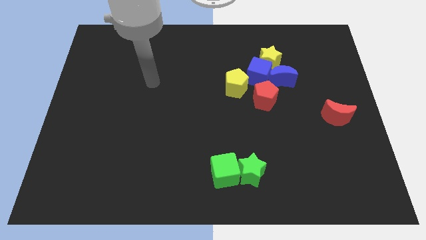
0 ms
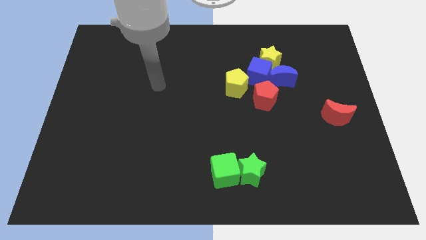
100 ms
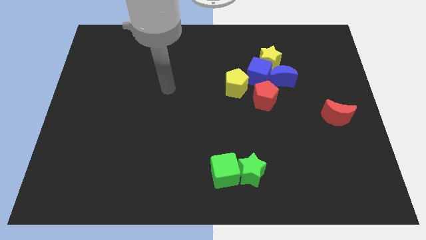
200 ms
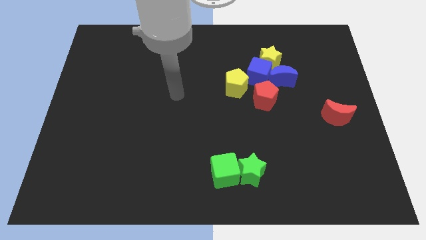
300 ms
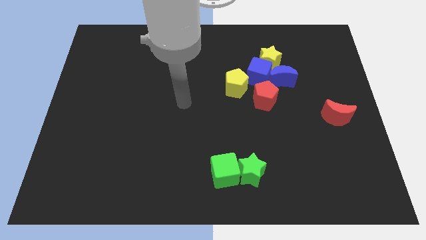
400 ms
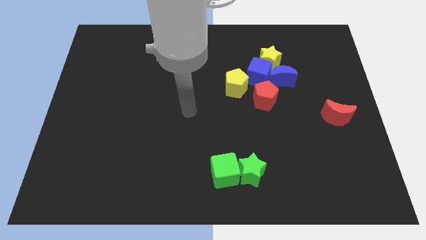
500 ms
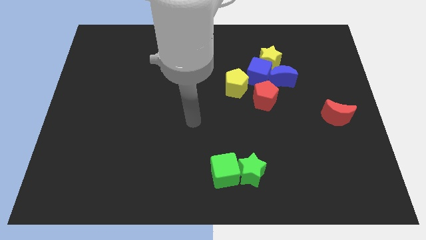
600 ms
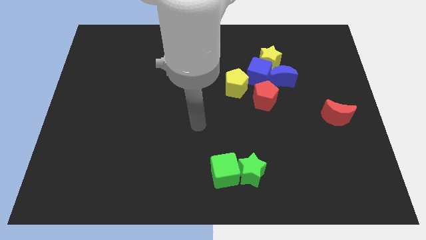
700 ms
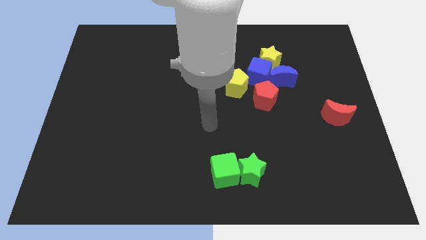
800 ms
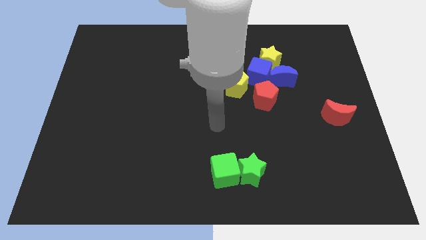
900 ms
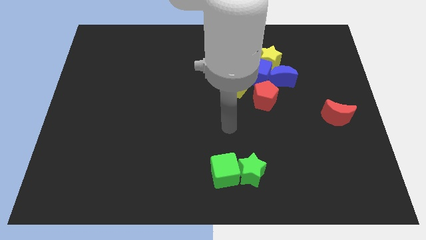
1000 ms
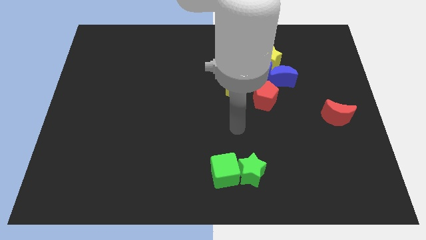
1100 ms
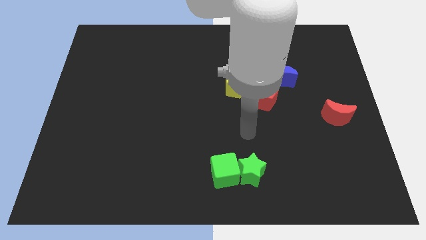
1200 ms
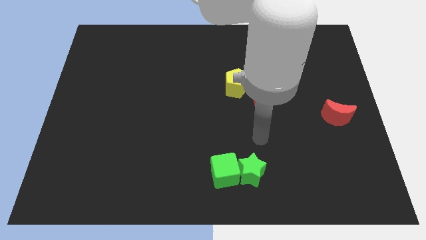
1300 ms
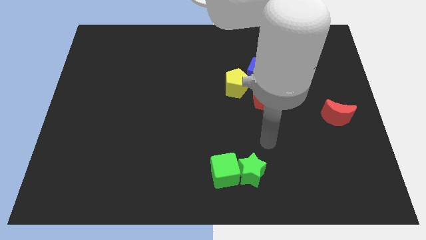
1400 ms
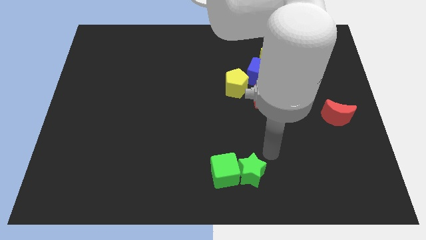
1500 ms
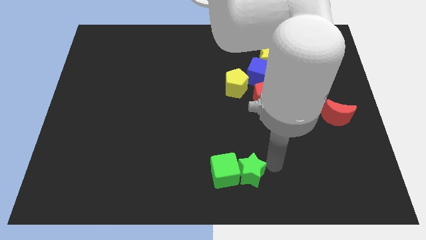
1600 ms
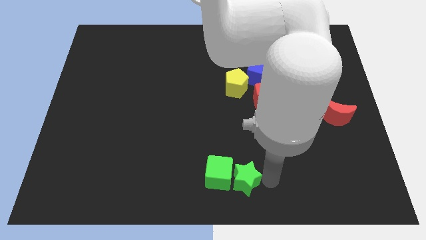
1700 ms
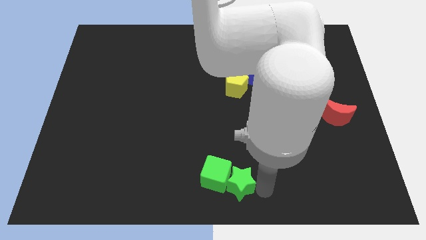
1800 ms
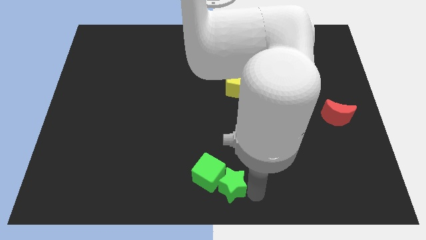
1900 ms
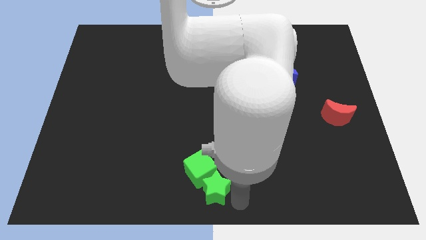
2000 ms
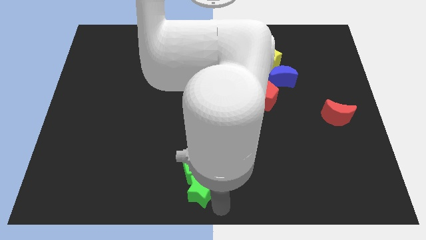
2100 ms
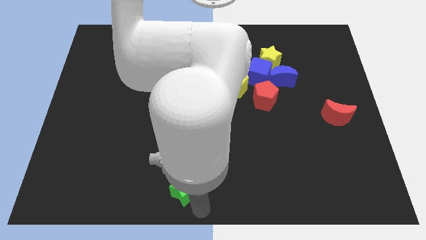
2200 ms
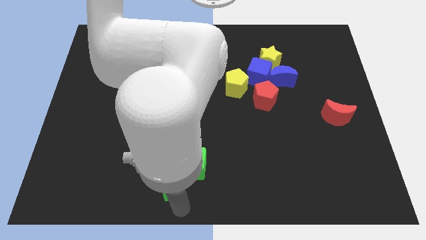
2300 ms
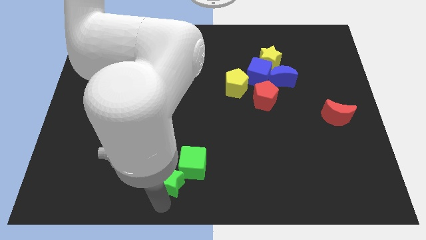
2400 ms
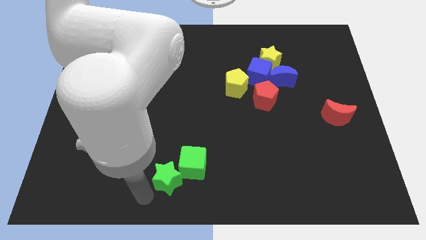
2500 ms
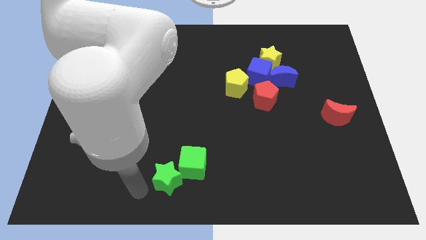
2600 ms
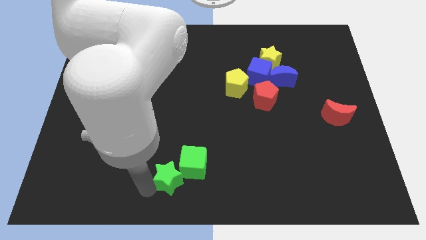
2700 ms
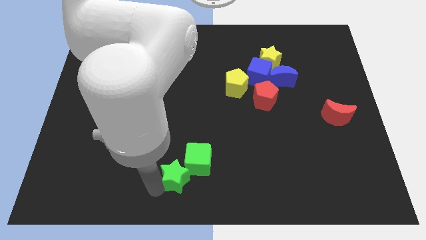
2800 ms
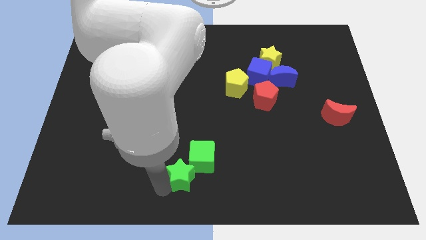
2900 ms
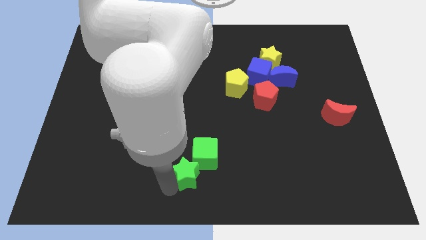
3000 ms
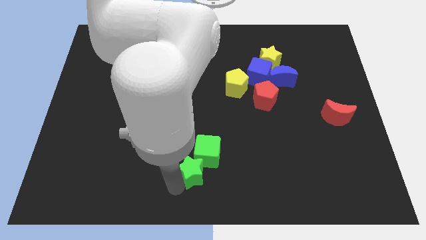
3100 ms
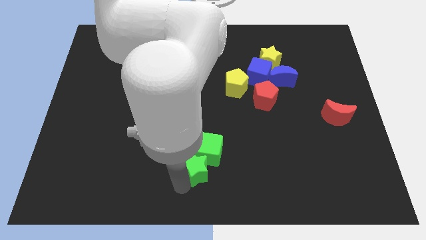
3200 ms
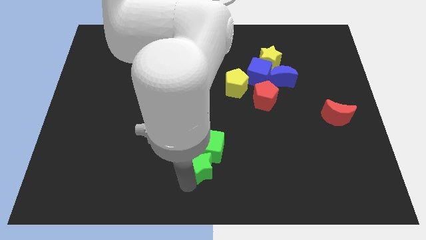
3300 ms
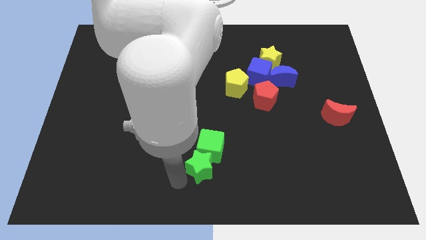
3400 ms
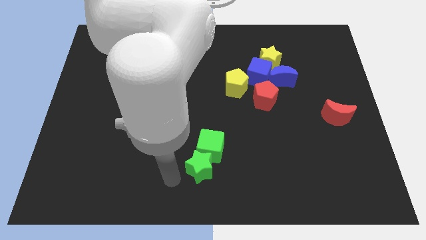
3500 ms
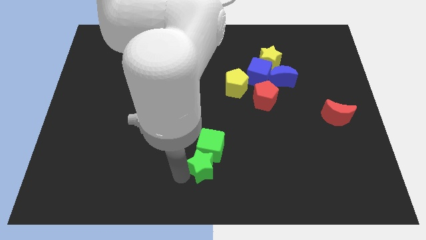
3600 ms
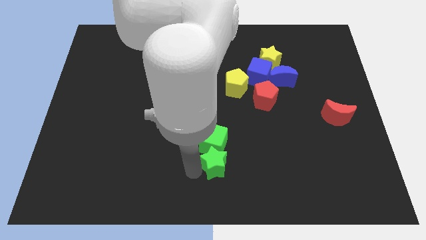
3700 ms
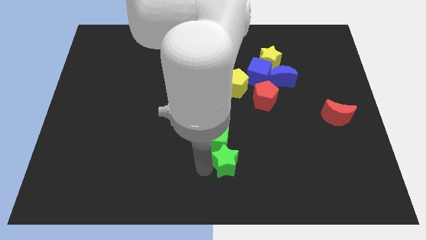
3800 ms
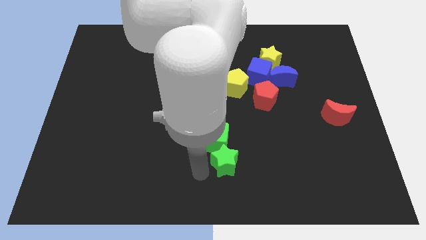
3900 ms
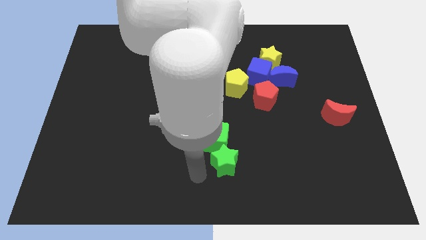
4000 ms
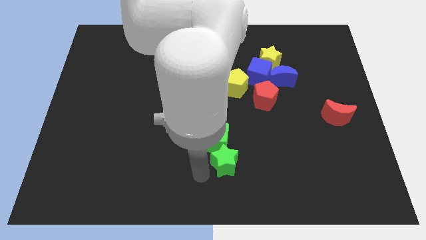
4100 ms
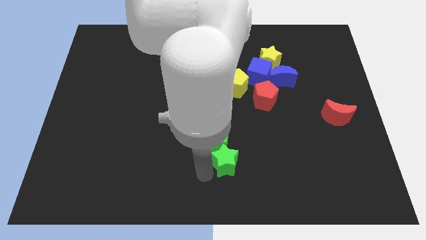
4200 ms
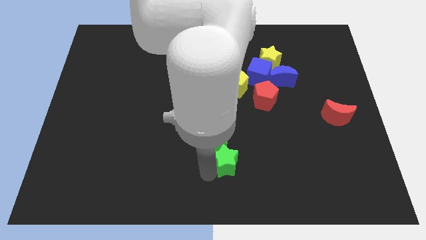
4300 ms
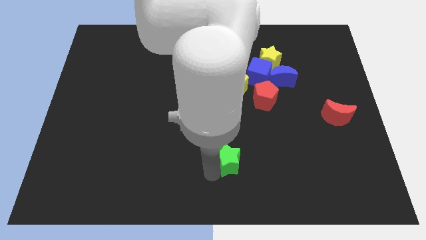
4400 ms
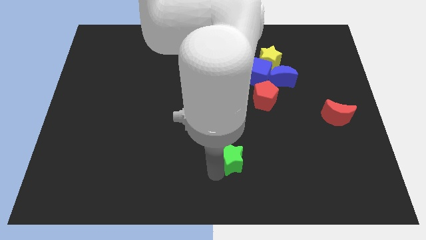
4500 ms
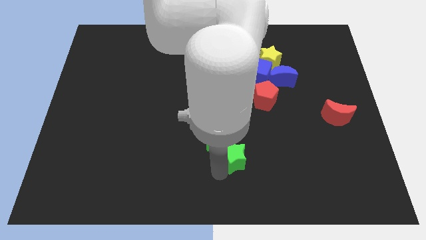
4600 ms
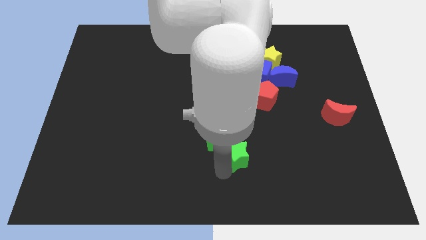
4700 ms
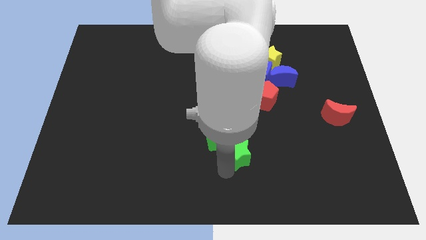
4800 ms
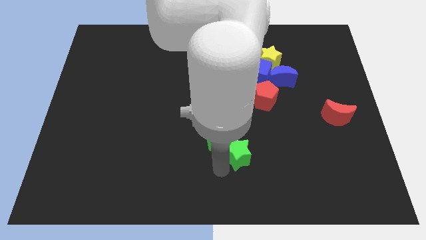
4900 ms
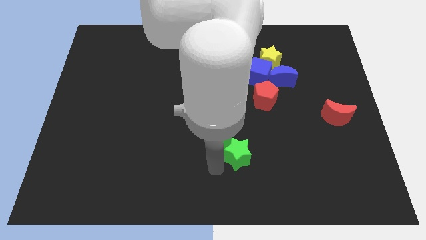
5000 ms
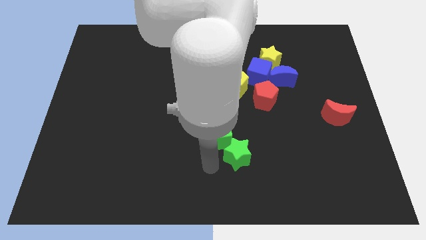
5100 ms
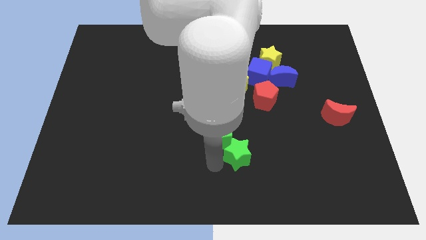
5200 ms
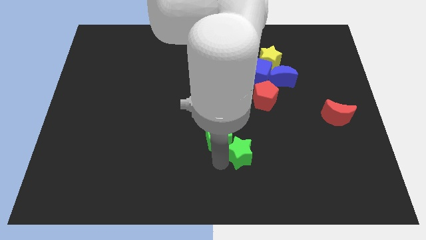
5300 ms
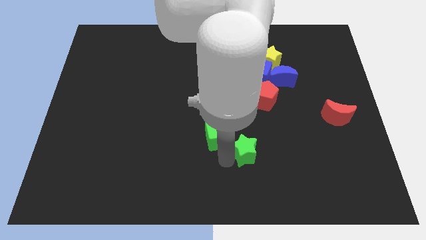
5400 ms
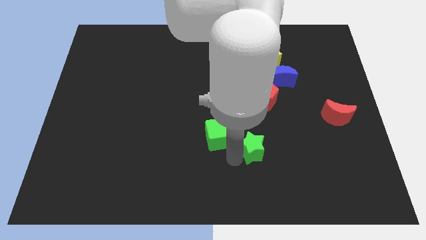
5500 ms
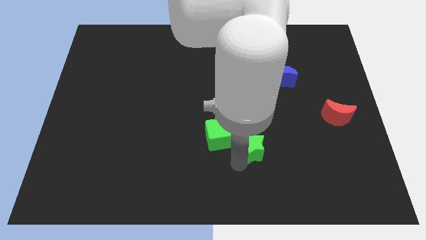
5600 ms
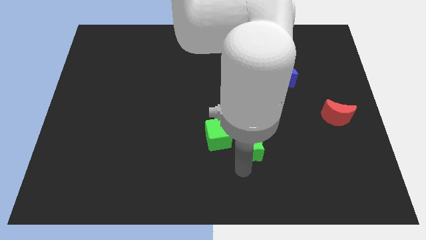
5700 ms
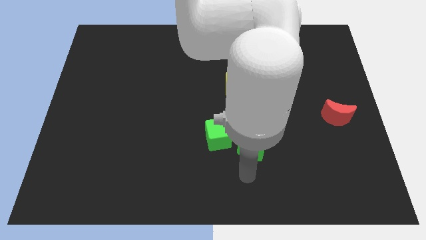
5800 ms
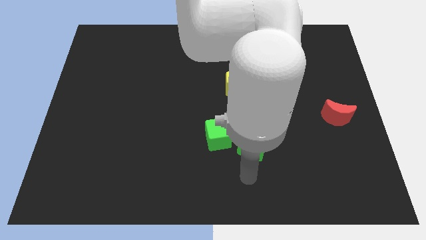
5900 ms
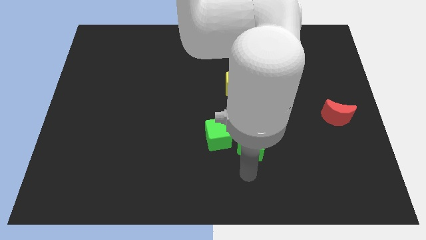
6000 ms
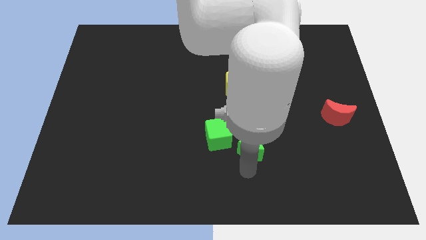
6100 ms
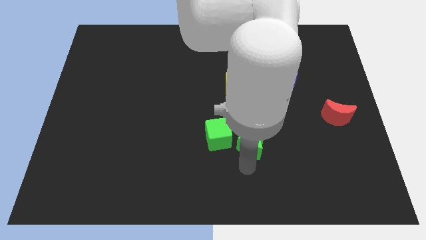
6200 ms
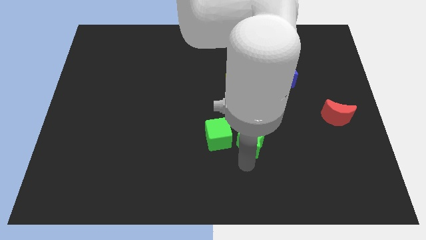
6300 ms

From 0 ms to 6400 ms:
slightly move the green star upwards

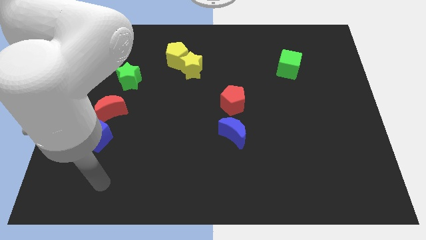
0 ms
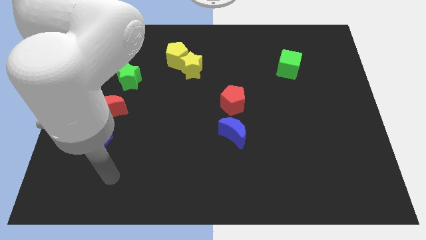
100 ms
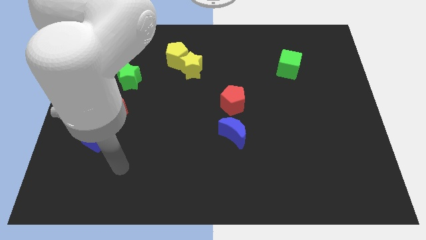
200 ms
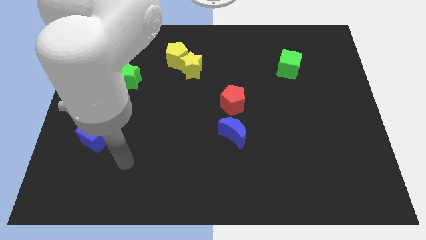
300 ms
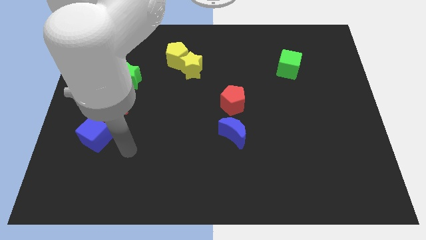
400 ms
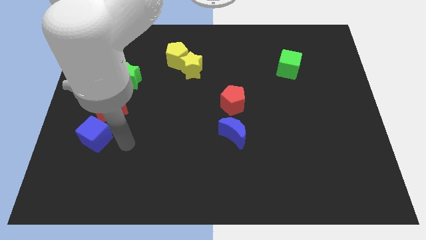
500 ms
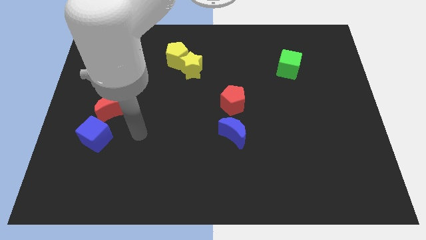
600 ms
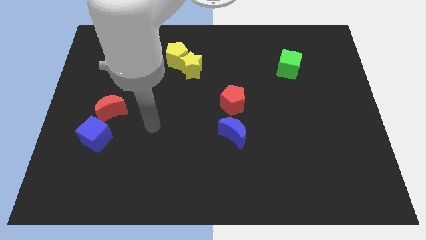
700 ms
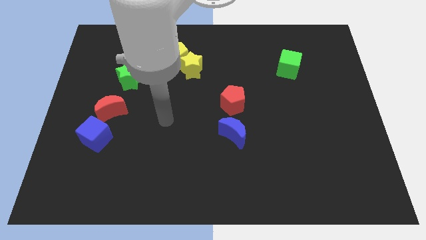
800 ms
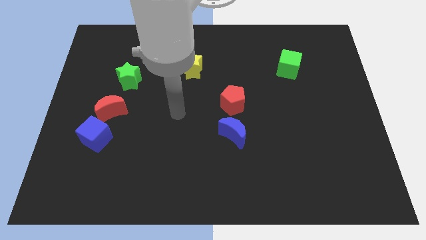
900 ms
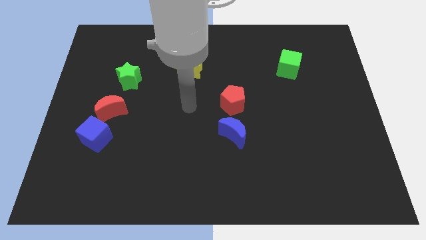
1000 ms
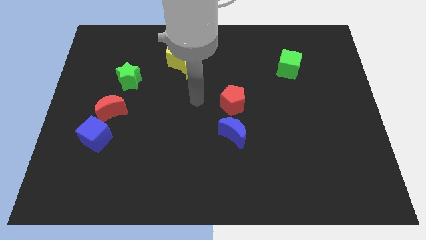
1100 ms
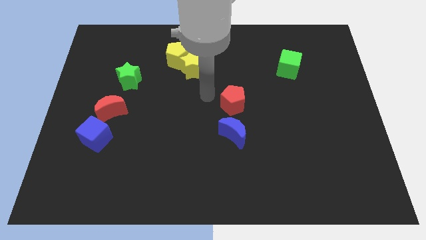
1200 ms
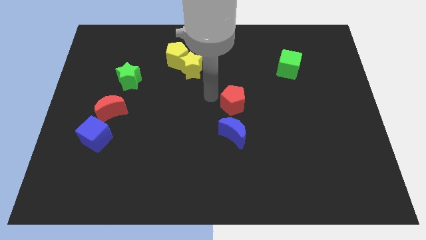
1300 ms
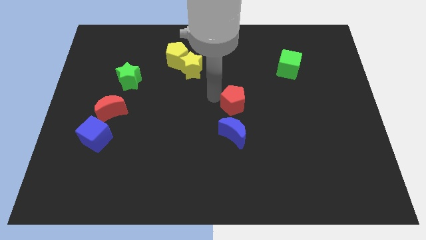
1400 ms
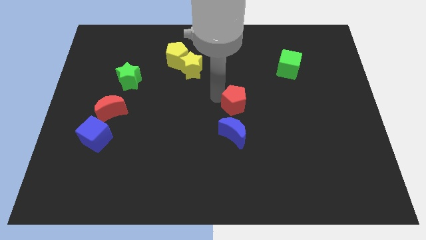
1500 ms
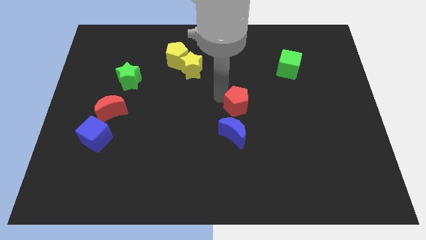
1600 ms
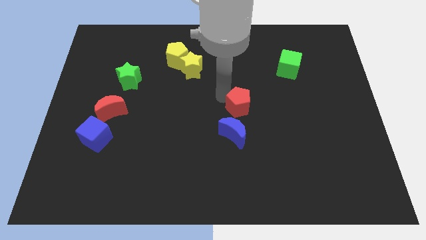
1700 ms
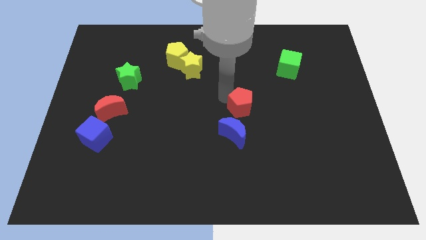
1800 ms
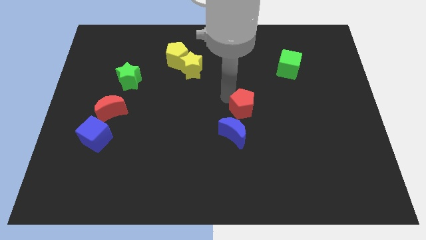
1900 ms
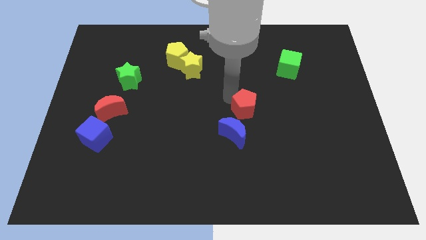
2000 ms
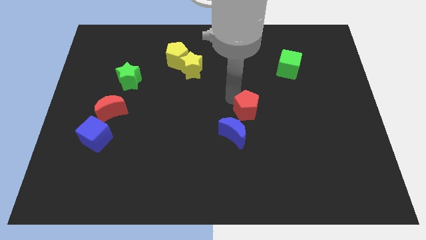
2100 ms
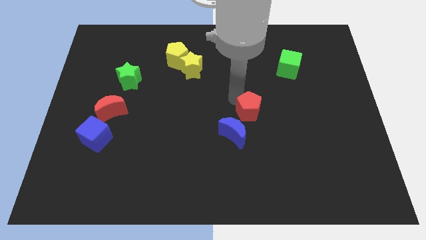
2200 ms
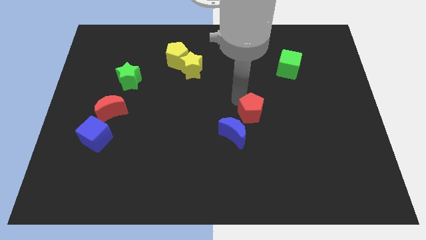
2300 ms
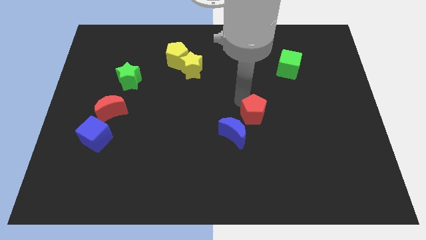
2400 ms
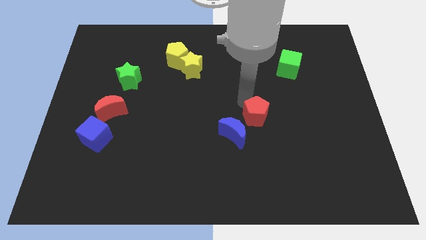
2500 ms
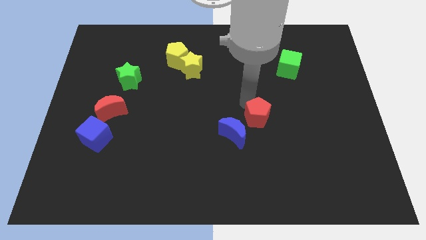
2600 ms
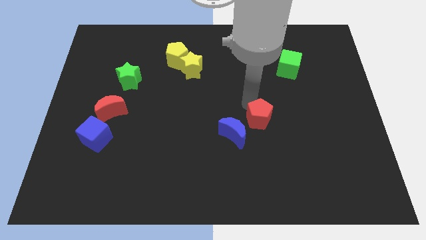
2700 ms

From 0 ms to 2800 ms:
move the red pentagon slightly down and right
